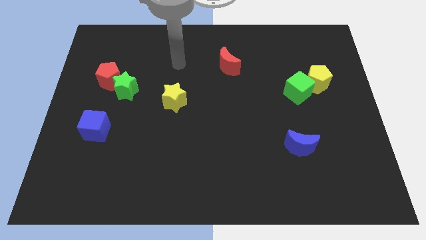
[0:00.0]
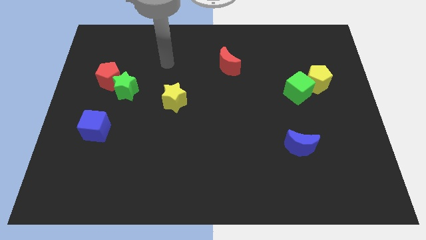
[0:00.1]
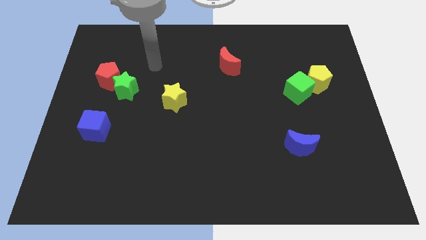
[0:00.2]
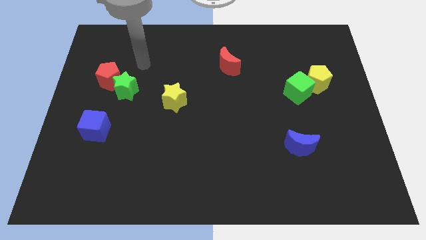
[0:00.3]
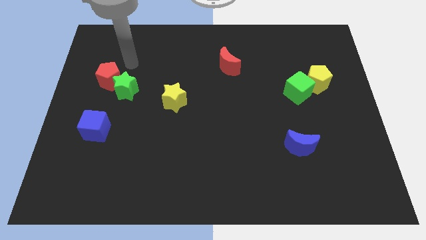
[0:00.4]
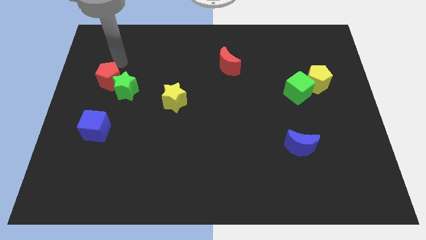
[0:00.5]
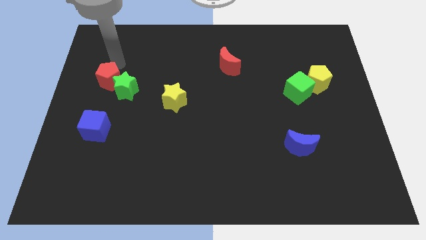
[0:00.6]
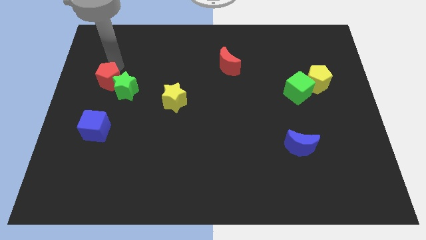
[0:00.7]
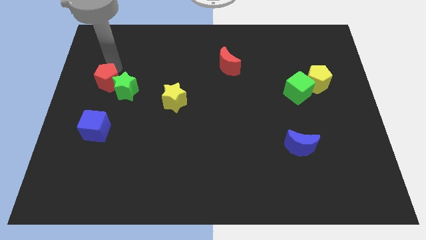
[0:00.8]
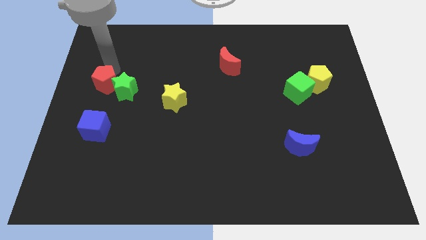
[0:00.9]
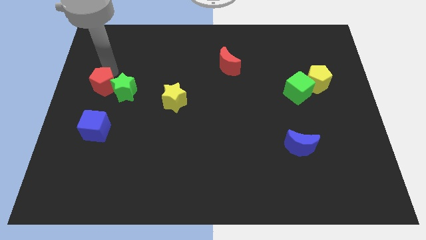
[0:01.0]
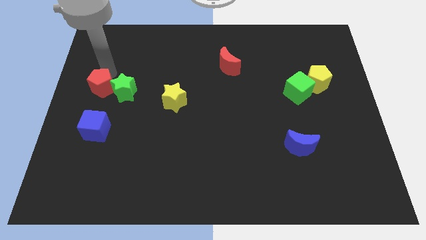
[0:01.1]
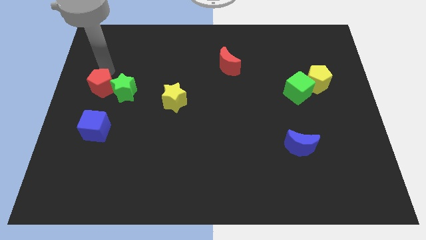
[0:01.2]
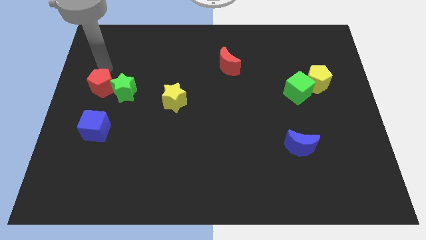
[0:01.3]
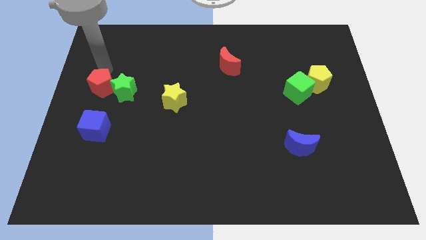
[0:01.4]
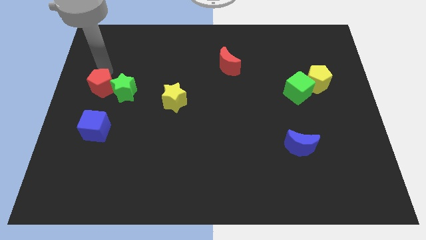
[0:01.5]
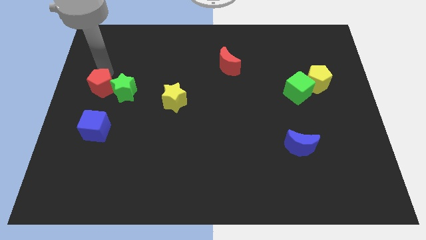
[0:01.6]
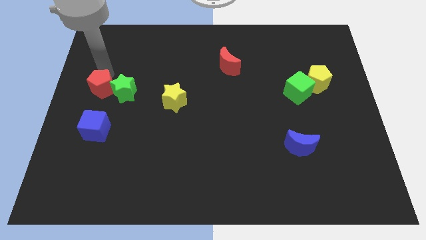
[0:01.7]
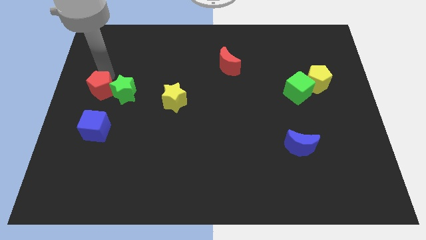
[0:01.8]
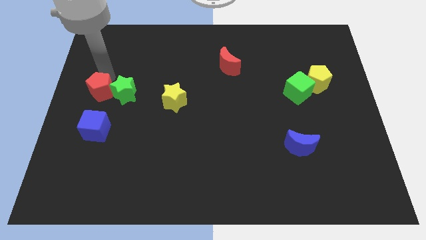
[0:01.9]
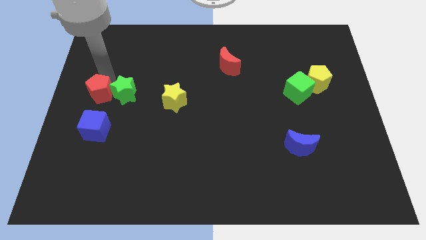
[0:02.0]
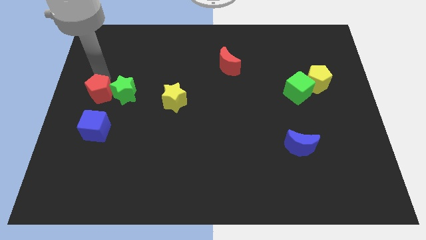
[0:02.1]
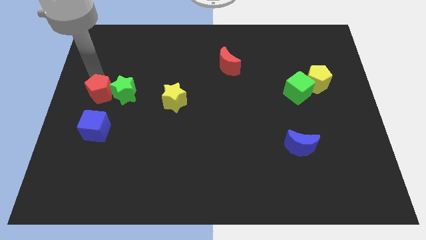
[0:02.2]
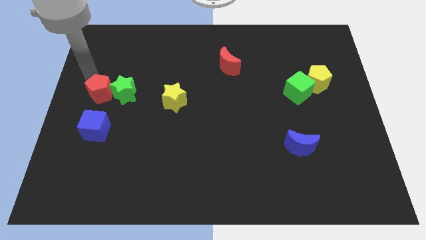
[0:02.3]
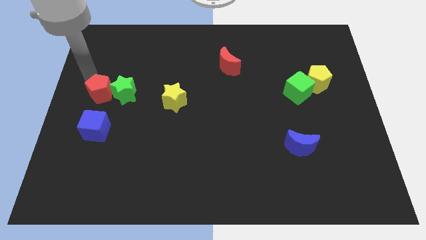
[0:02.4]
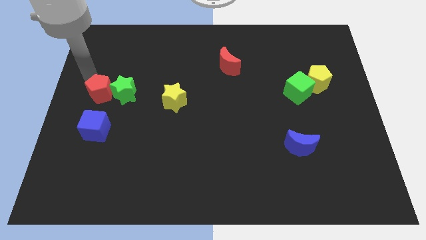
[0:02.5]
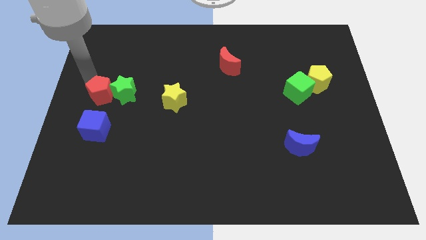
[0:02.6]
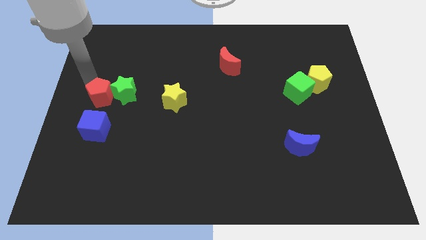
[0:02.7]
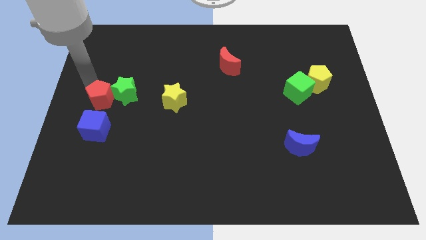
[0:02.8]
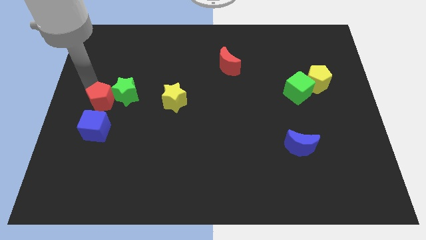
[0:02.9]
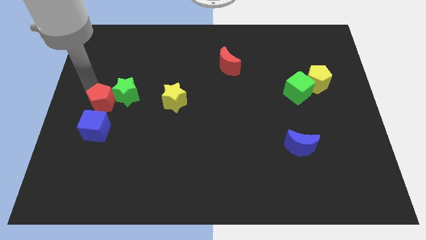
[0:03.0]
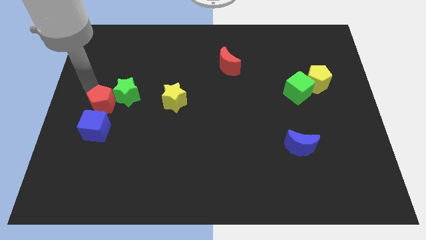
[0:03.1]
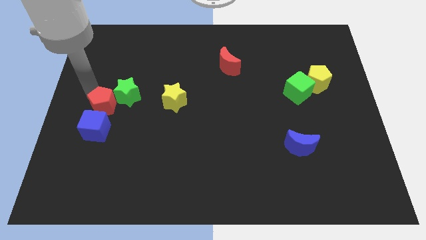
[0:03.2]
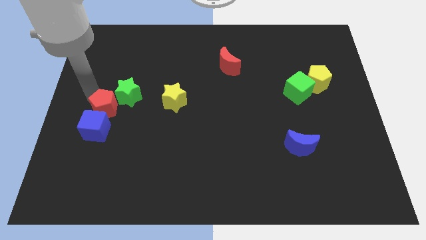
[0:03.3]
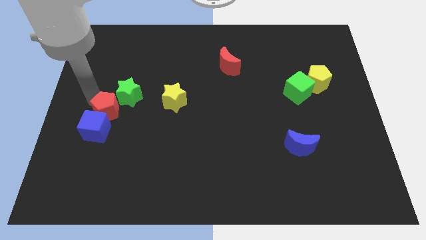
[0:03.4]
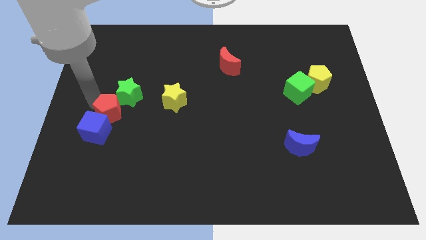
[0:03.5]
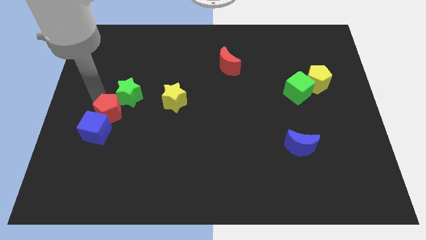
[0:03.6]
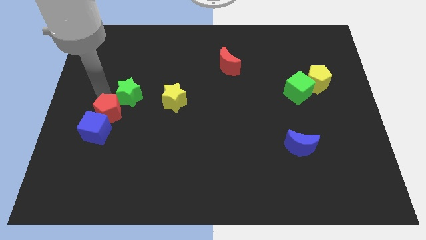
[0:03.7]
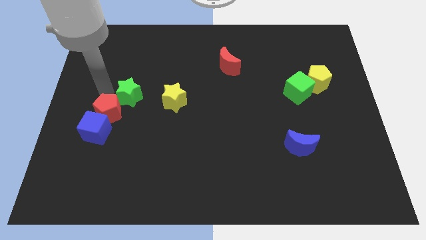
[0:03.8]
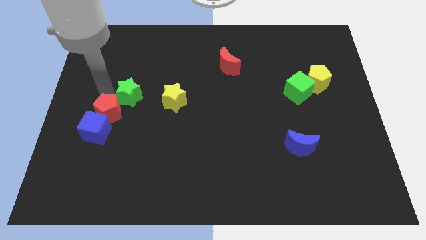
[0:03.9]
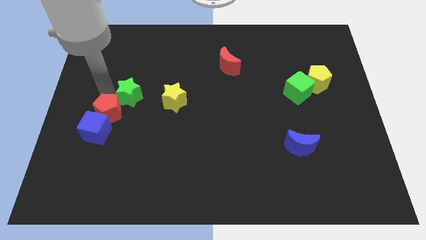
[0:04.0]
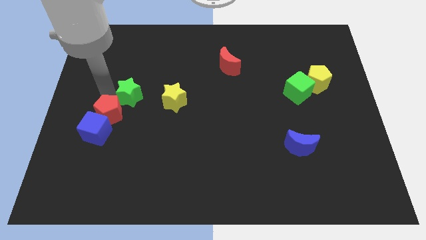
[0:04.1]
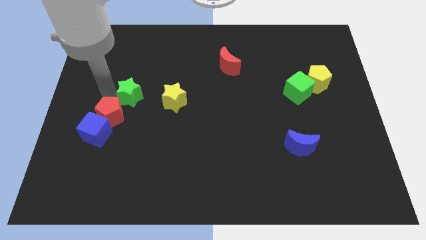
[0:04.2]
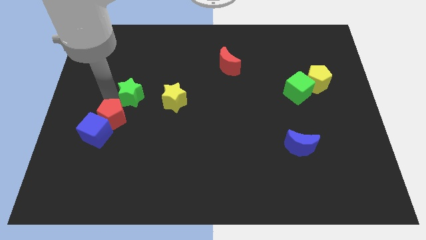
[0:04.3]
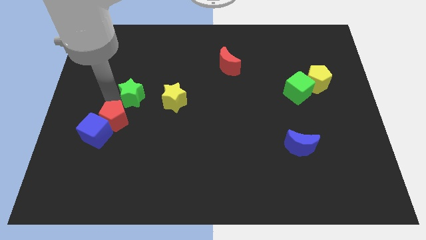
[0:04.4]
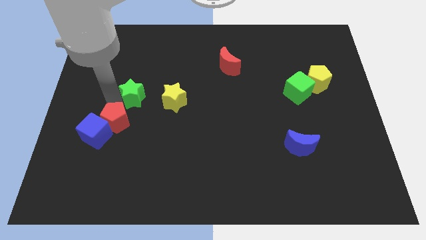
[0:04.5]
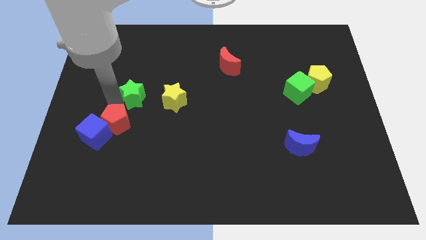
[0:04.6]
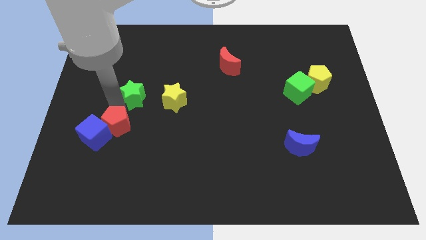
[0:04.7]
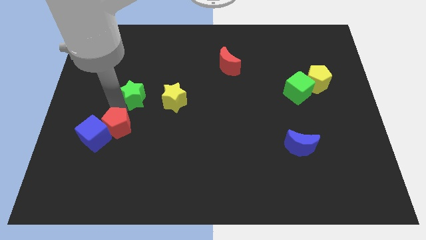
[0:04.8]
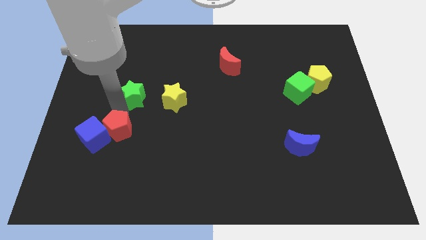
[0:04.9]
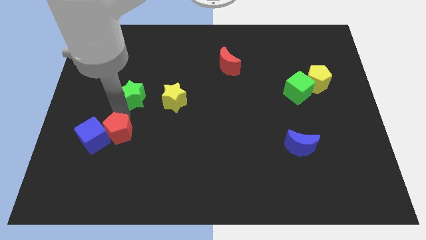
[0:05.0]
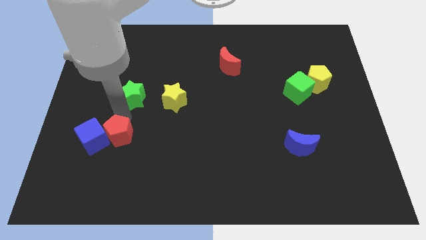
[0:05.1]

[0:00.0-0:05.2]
move the red pentagon to the bottom right of the blue cube

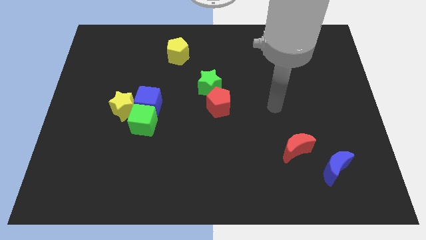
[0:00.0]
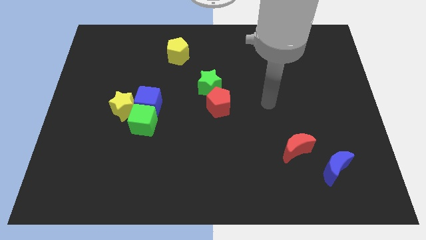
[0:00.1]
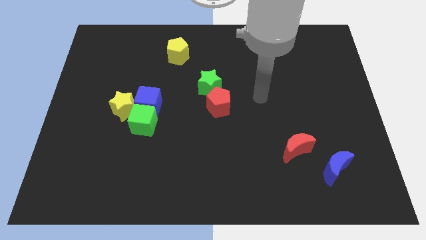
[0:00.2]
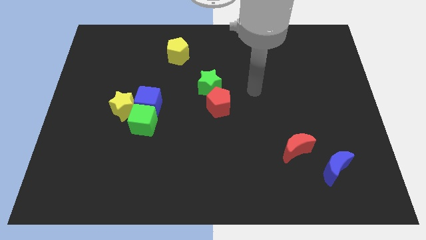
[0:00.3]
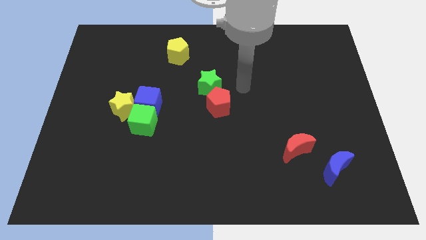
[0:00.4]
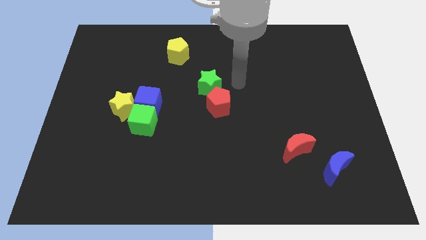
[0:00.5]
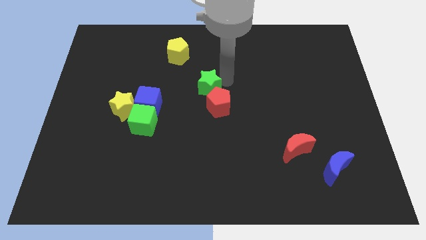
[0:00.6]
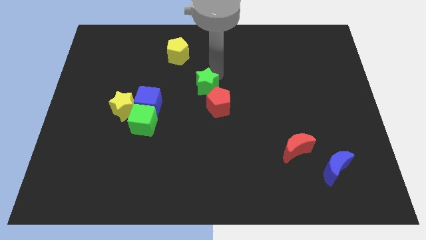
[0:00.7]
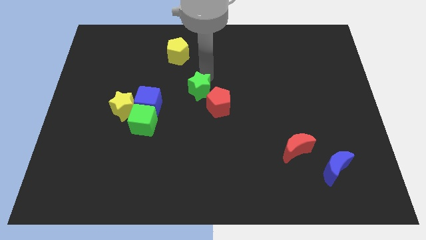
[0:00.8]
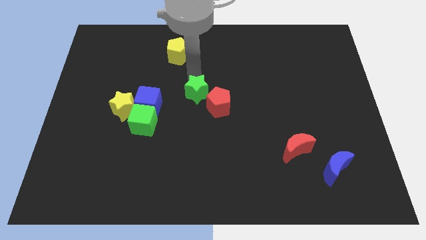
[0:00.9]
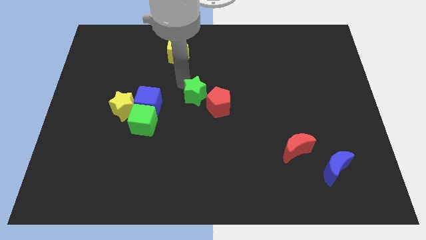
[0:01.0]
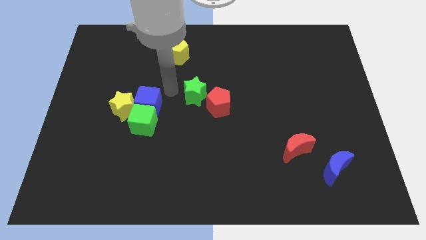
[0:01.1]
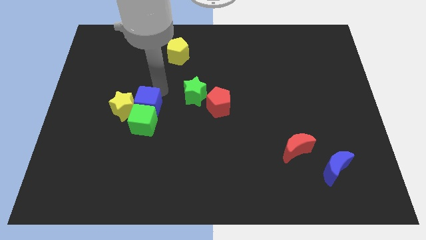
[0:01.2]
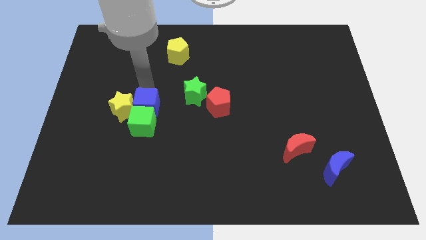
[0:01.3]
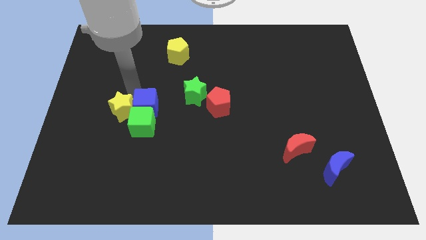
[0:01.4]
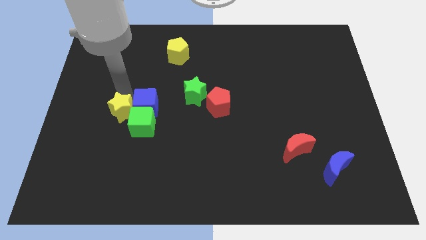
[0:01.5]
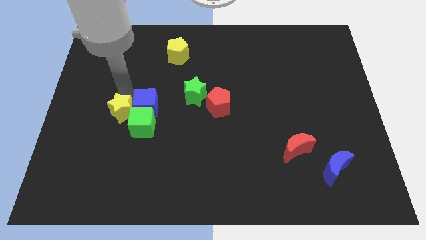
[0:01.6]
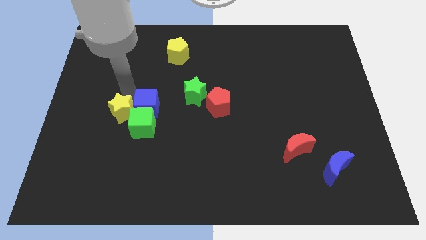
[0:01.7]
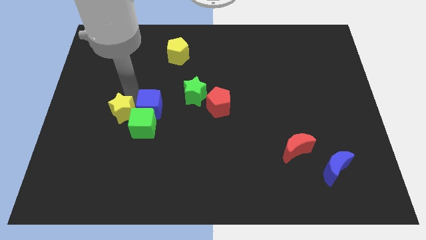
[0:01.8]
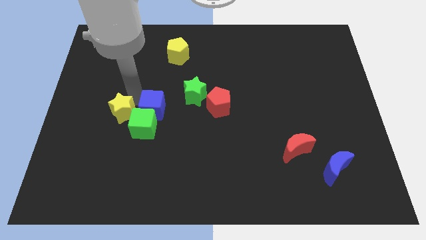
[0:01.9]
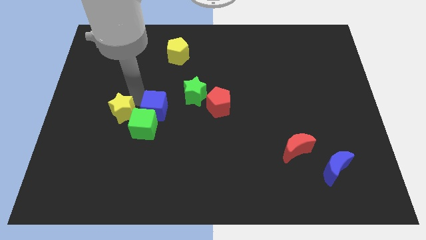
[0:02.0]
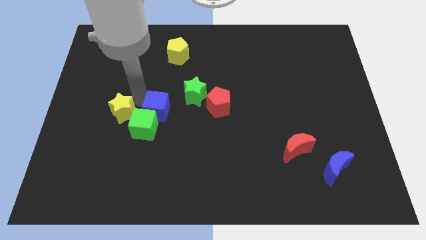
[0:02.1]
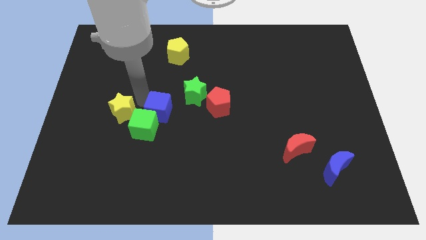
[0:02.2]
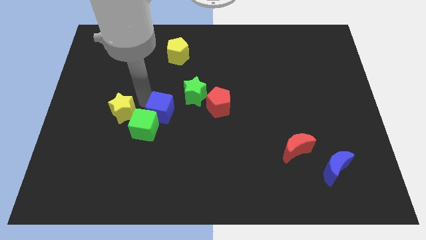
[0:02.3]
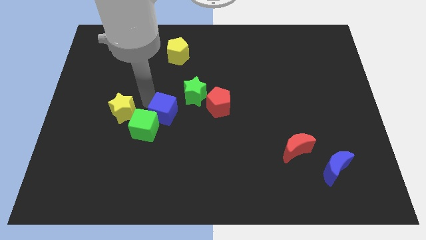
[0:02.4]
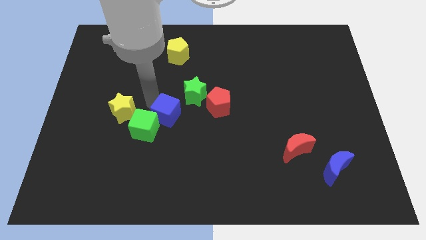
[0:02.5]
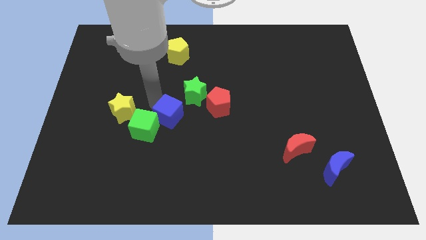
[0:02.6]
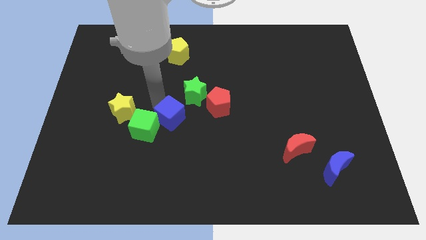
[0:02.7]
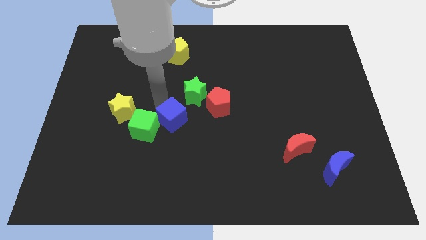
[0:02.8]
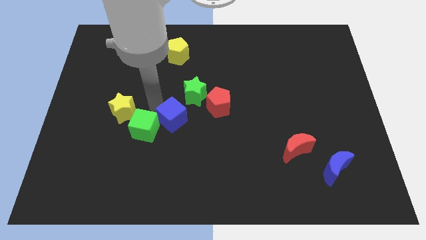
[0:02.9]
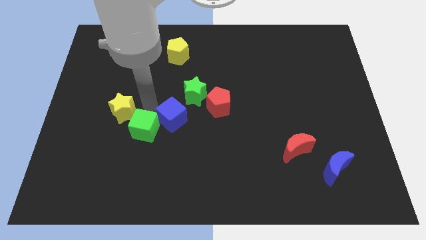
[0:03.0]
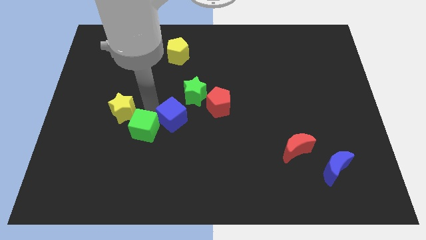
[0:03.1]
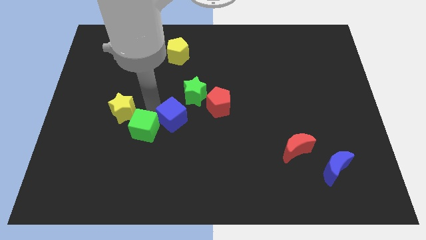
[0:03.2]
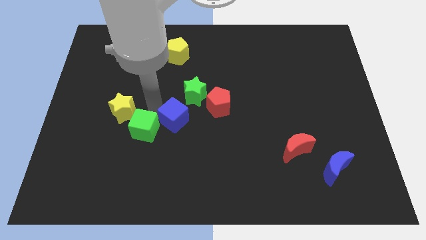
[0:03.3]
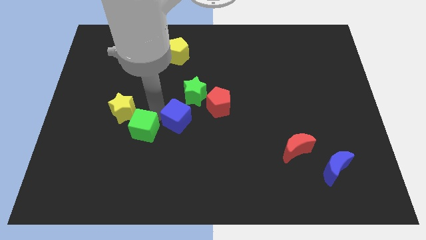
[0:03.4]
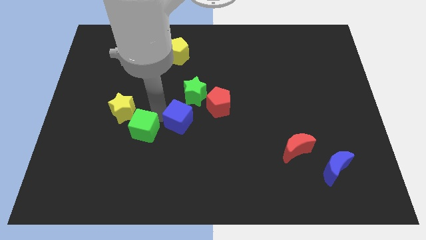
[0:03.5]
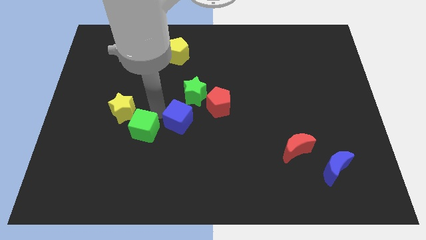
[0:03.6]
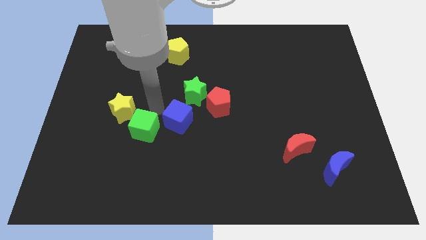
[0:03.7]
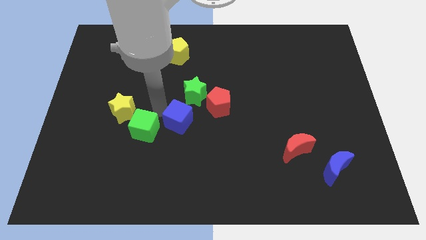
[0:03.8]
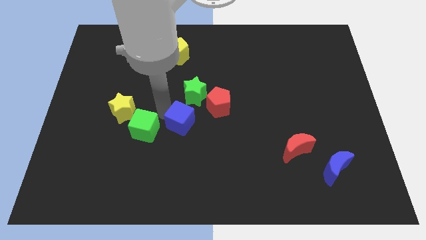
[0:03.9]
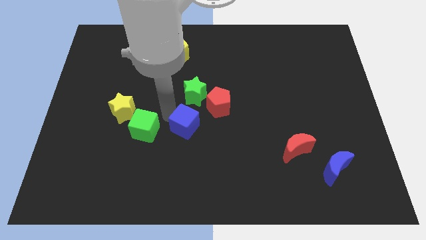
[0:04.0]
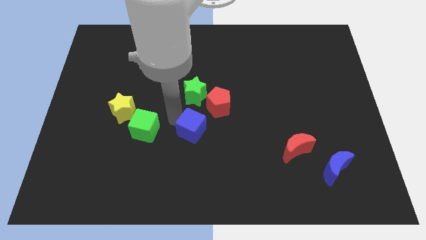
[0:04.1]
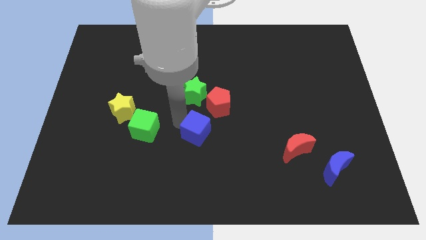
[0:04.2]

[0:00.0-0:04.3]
slide the blue cube below the red pentagon
